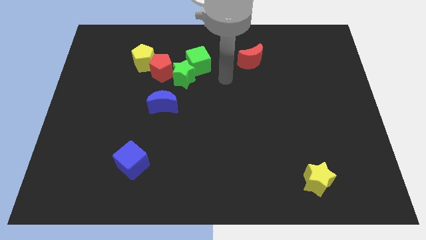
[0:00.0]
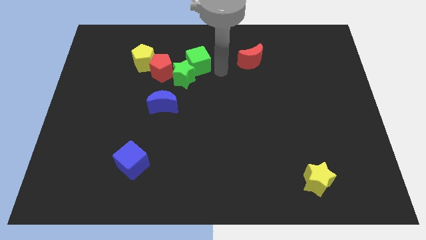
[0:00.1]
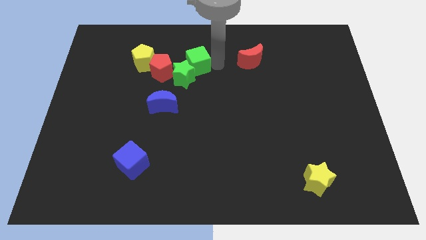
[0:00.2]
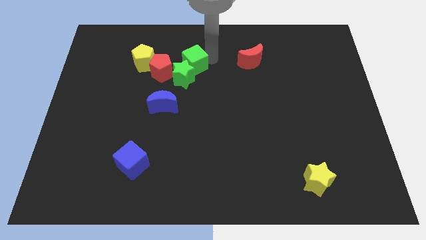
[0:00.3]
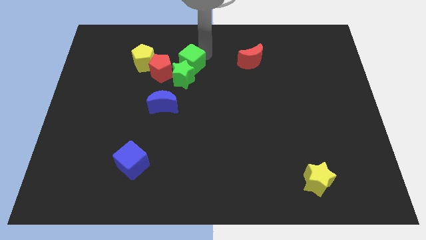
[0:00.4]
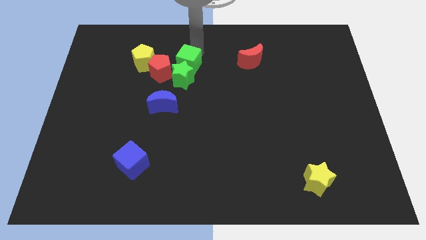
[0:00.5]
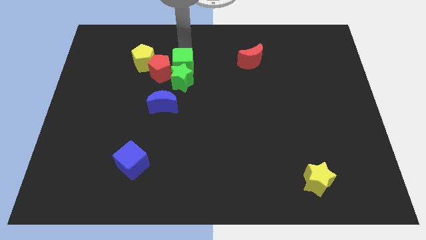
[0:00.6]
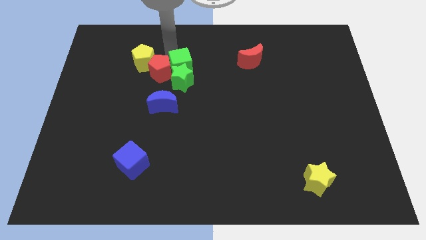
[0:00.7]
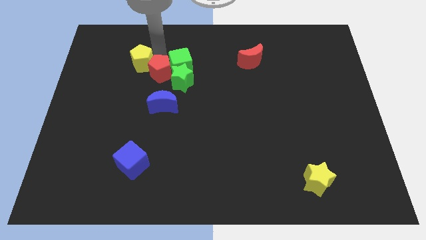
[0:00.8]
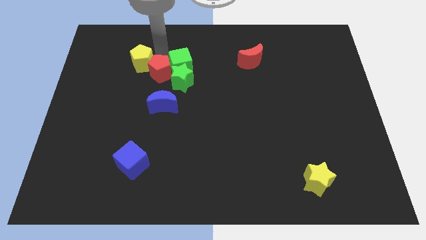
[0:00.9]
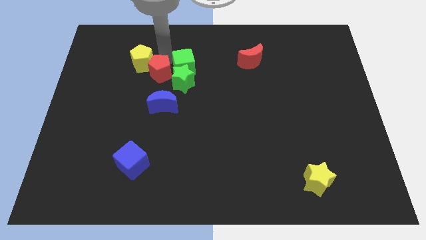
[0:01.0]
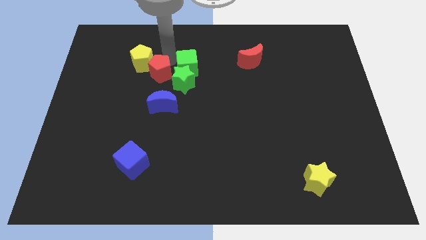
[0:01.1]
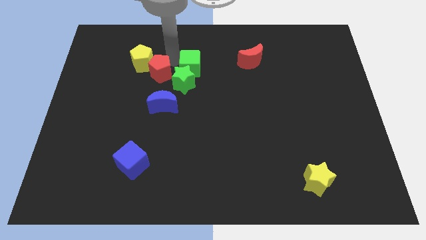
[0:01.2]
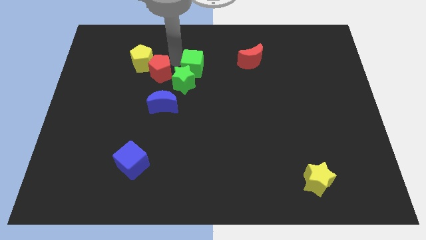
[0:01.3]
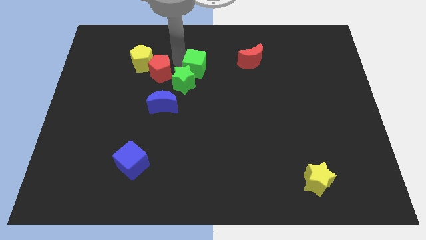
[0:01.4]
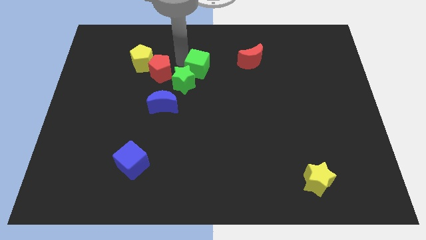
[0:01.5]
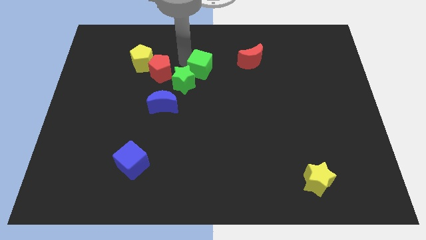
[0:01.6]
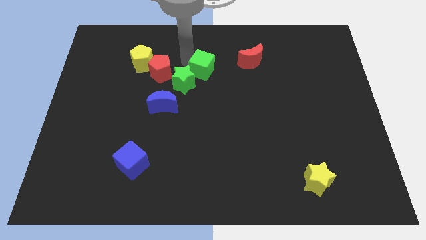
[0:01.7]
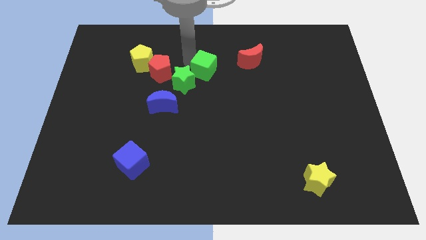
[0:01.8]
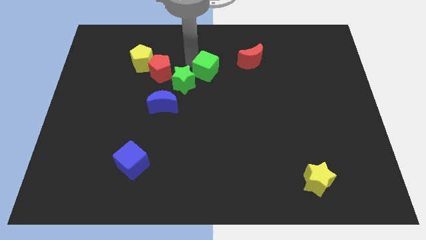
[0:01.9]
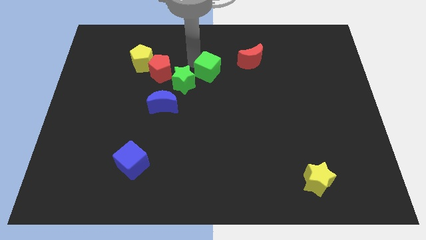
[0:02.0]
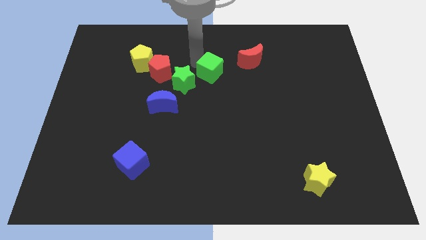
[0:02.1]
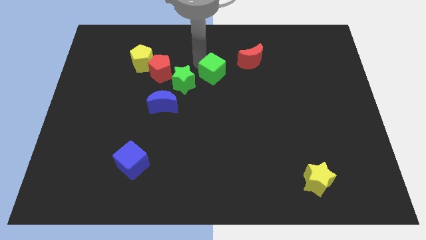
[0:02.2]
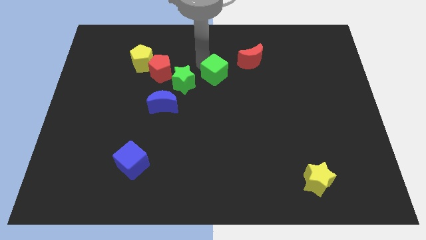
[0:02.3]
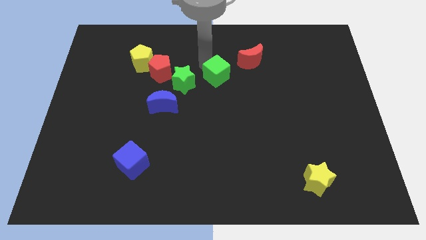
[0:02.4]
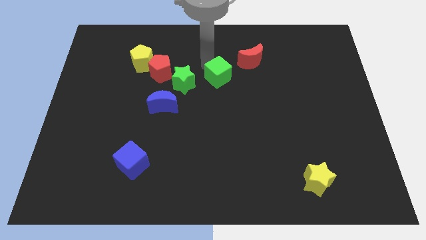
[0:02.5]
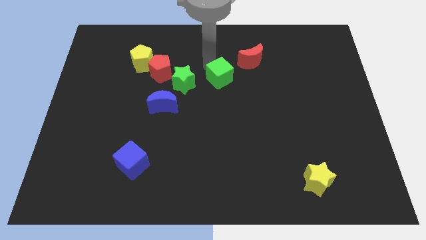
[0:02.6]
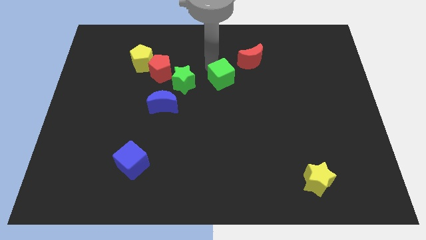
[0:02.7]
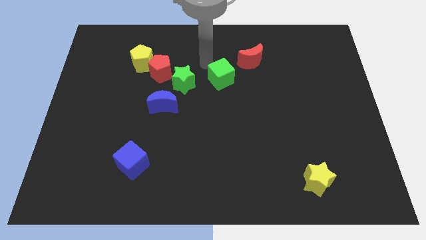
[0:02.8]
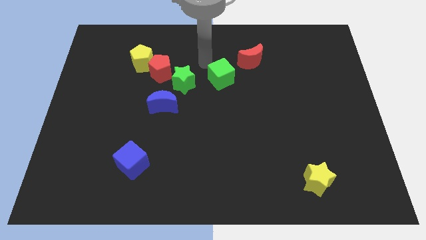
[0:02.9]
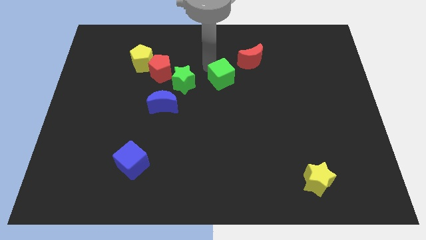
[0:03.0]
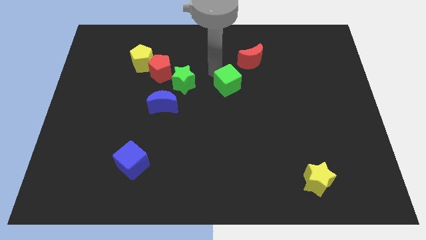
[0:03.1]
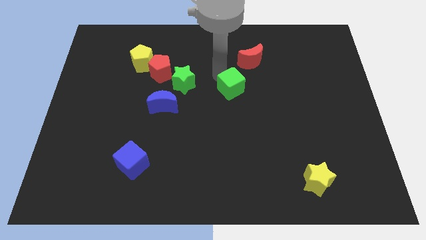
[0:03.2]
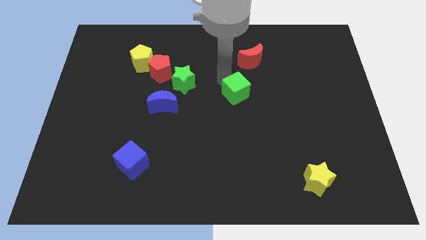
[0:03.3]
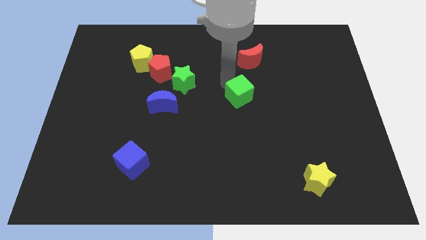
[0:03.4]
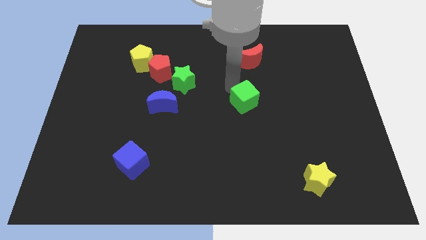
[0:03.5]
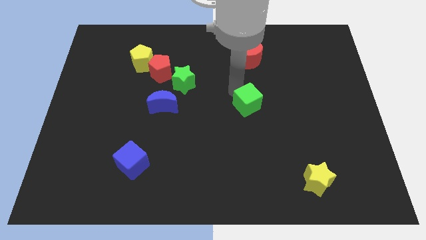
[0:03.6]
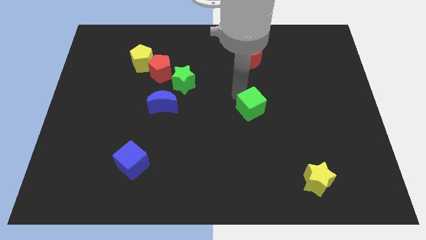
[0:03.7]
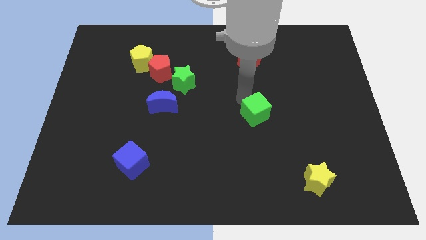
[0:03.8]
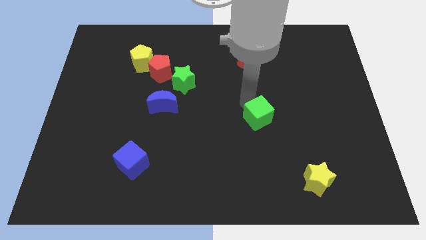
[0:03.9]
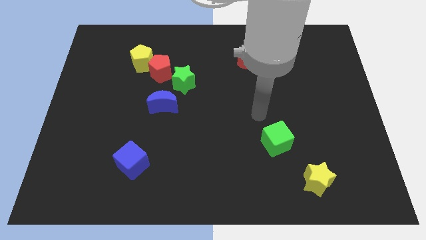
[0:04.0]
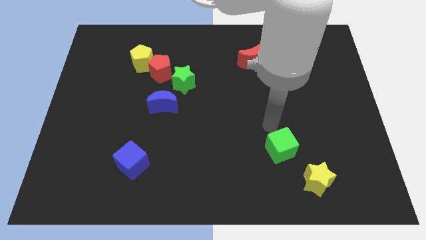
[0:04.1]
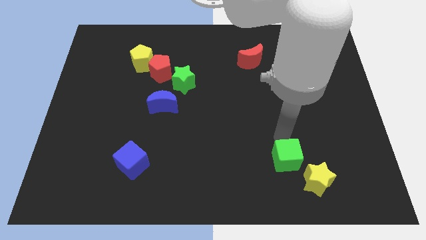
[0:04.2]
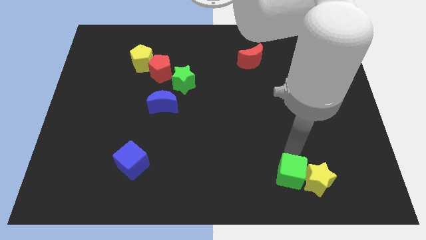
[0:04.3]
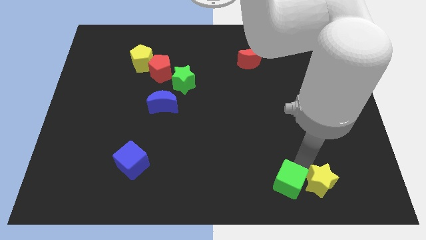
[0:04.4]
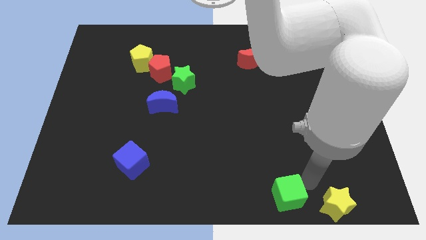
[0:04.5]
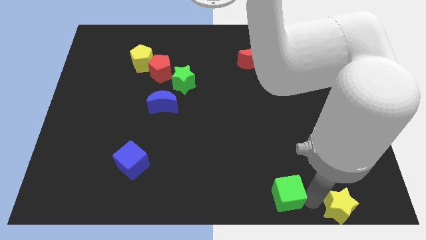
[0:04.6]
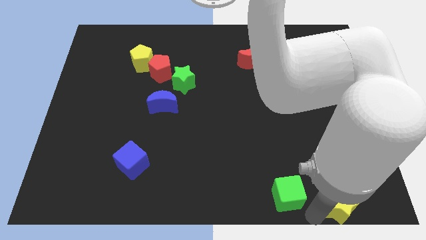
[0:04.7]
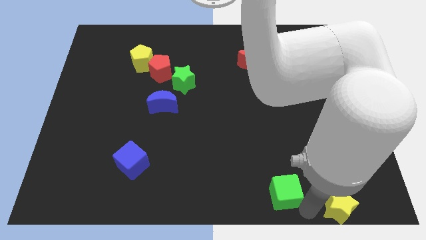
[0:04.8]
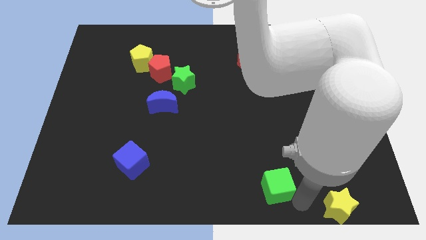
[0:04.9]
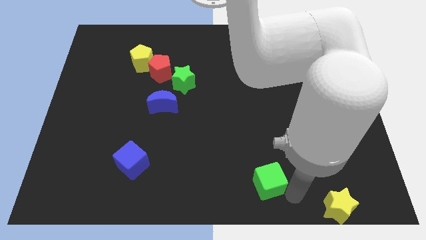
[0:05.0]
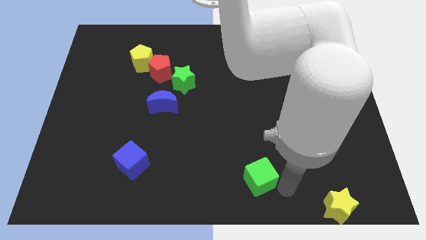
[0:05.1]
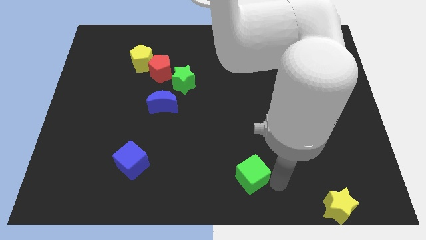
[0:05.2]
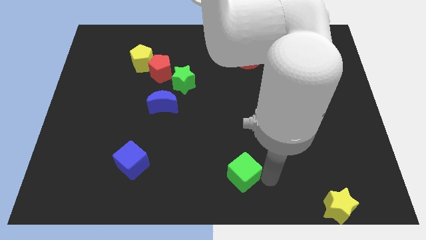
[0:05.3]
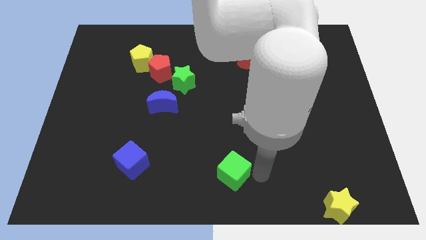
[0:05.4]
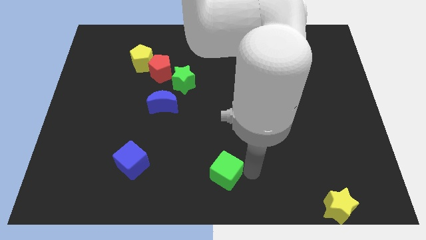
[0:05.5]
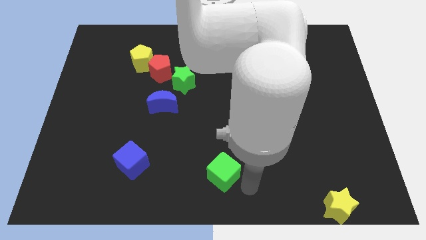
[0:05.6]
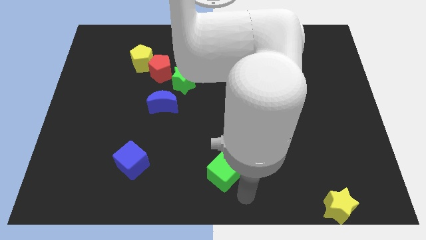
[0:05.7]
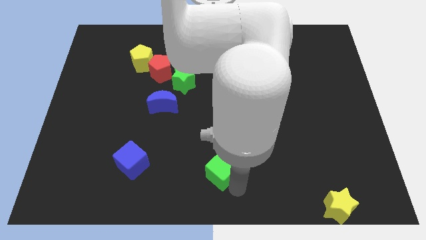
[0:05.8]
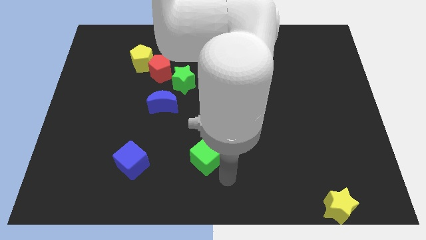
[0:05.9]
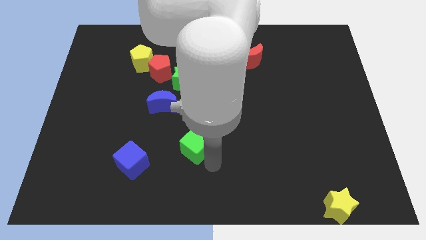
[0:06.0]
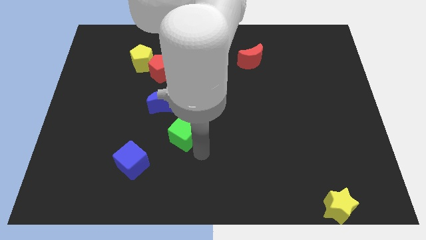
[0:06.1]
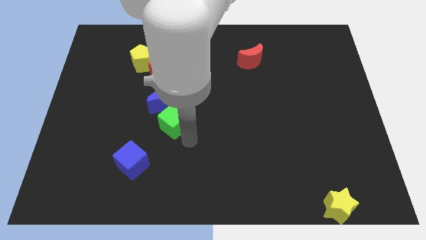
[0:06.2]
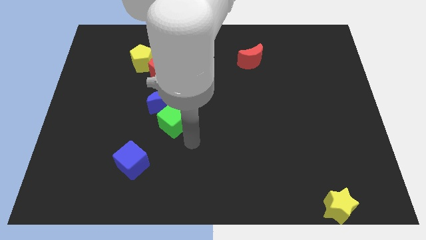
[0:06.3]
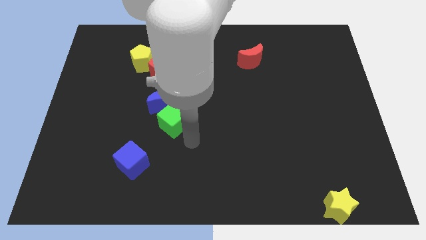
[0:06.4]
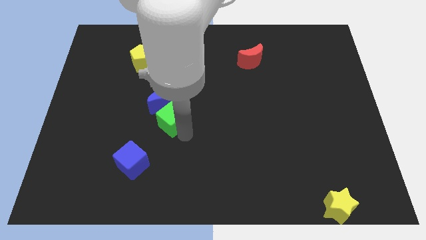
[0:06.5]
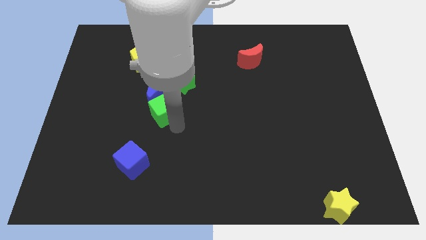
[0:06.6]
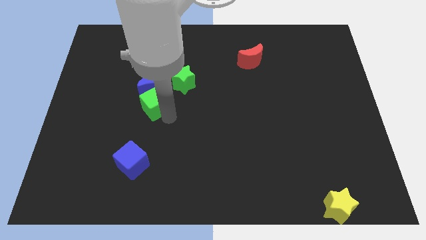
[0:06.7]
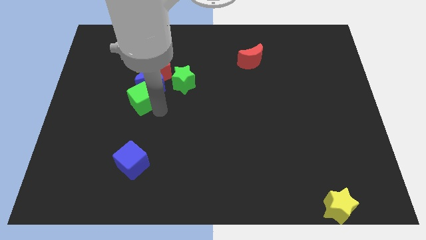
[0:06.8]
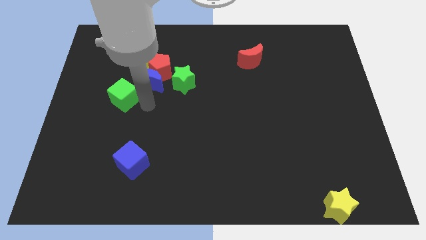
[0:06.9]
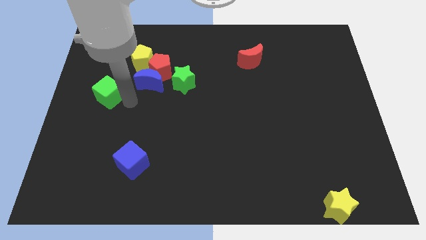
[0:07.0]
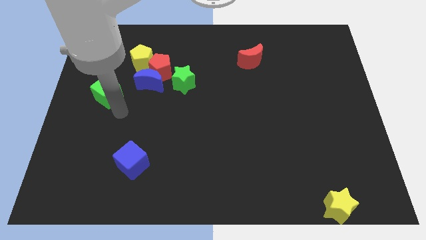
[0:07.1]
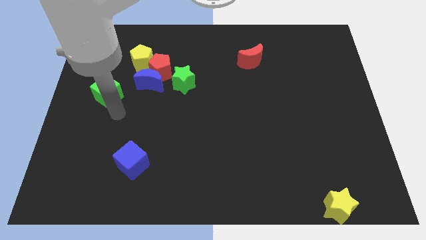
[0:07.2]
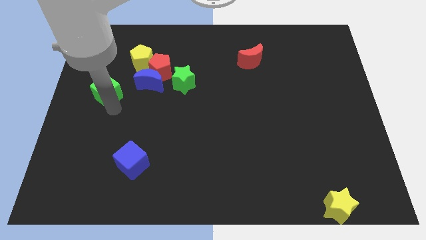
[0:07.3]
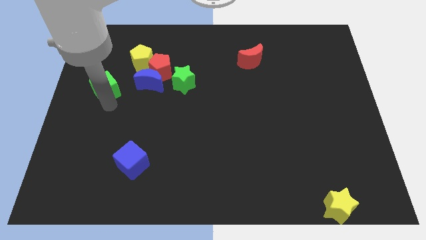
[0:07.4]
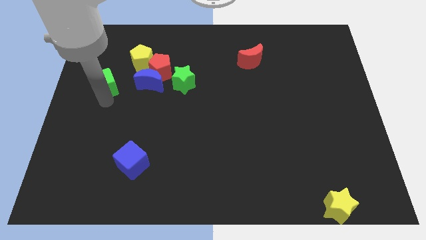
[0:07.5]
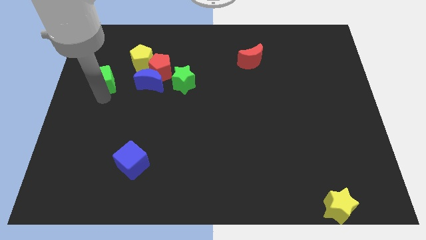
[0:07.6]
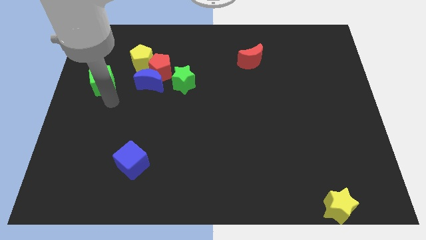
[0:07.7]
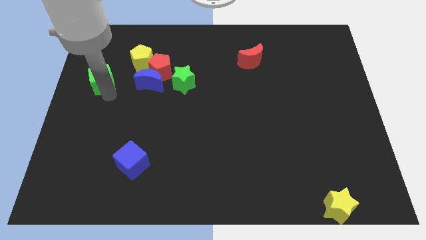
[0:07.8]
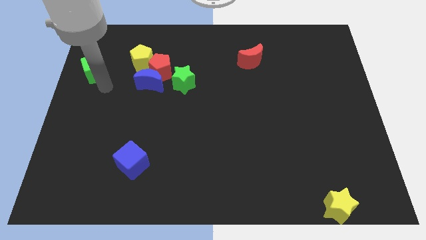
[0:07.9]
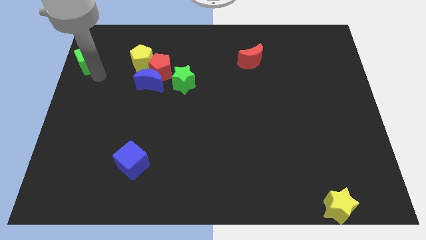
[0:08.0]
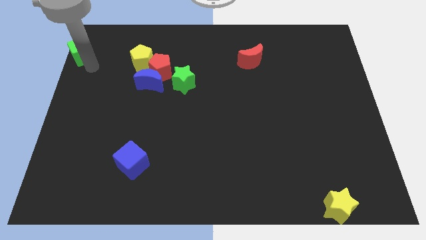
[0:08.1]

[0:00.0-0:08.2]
move the green cube to the top left of the board
